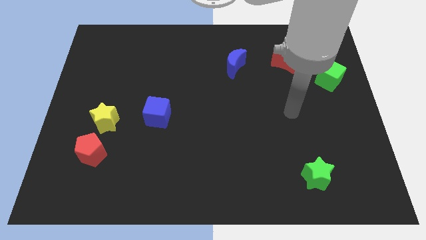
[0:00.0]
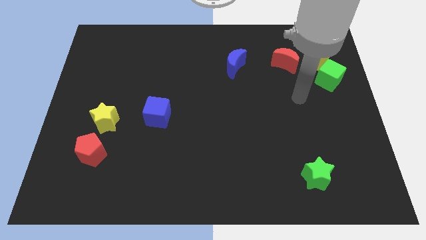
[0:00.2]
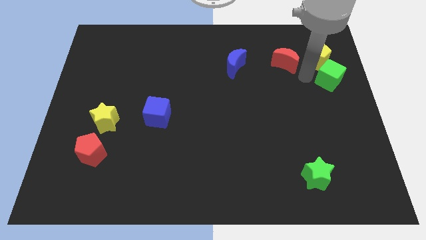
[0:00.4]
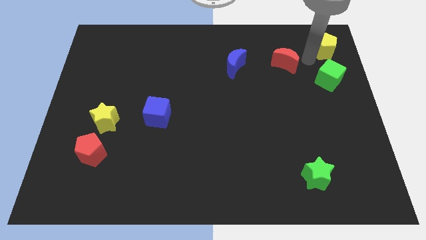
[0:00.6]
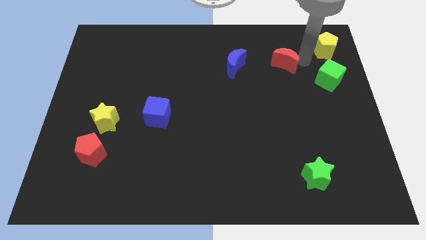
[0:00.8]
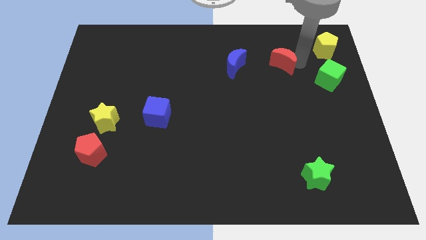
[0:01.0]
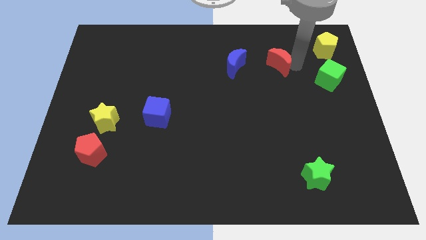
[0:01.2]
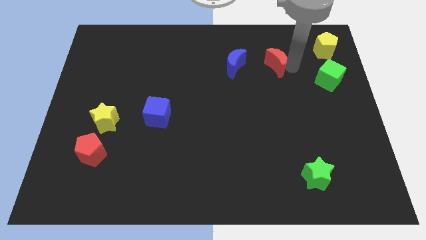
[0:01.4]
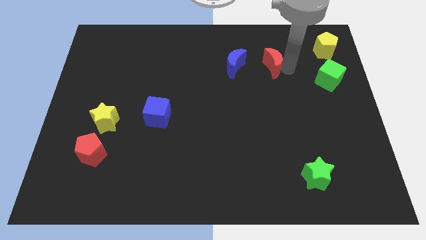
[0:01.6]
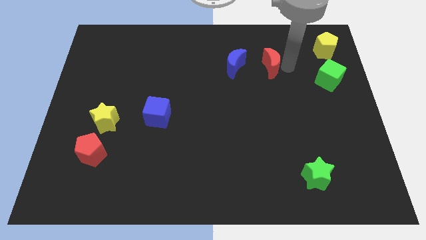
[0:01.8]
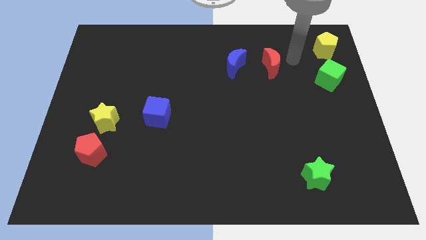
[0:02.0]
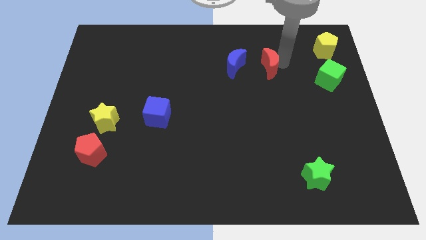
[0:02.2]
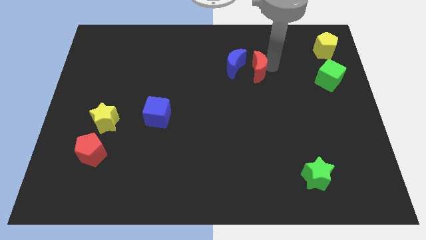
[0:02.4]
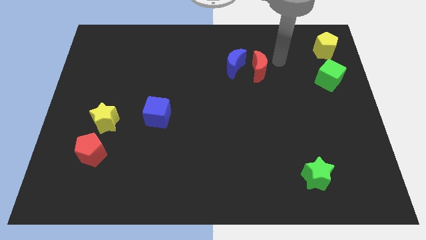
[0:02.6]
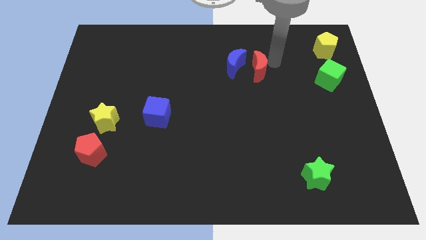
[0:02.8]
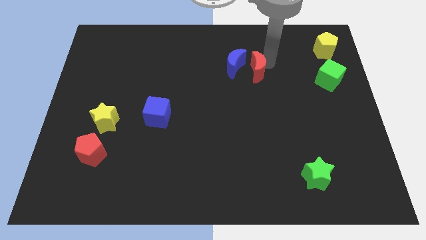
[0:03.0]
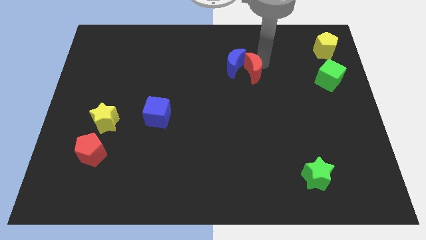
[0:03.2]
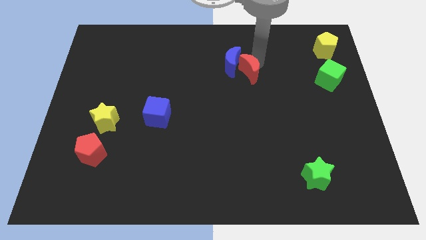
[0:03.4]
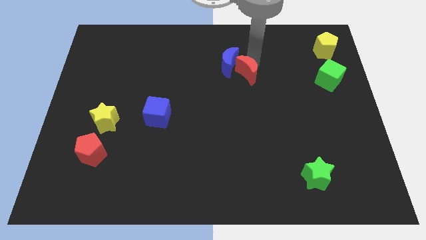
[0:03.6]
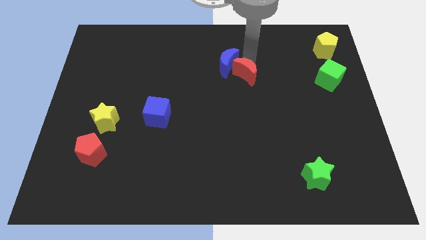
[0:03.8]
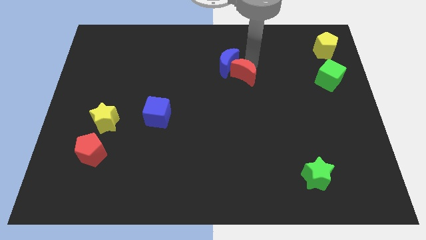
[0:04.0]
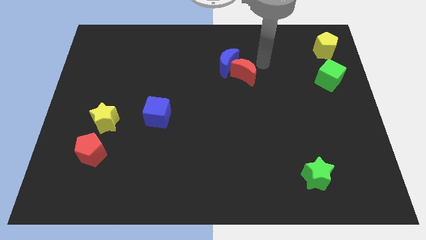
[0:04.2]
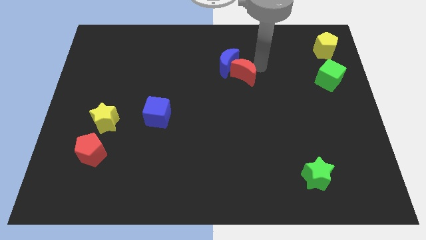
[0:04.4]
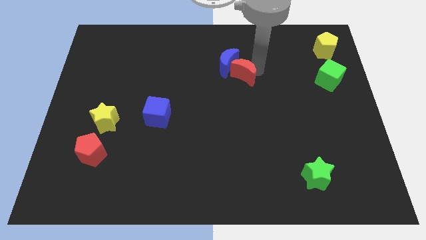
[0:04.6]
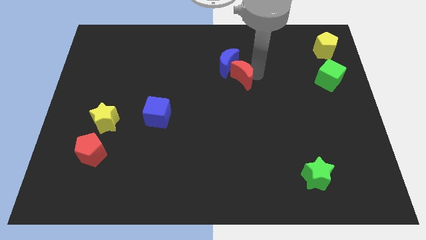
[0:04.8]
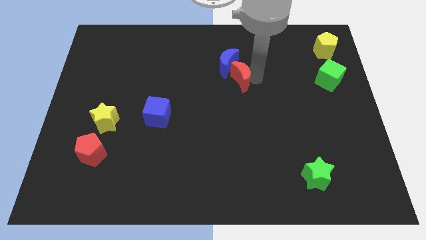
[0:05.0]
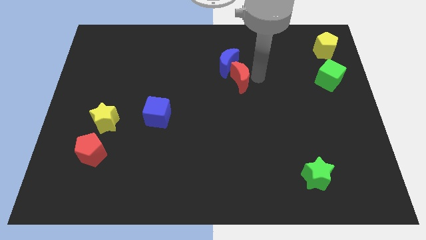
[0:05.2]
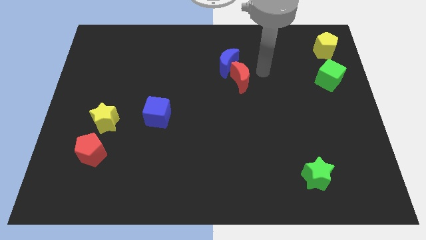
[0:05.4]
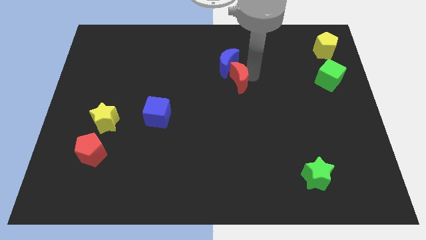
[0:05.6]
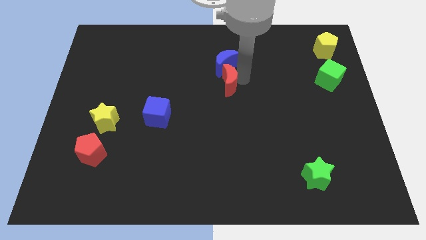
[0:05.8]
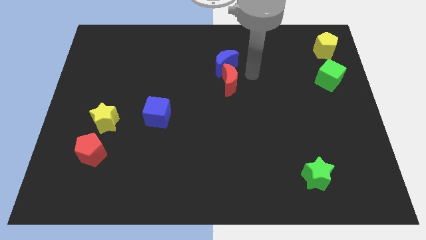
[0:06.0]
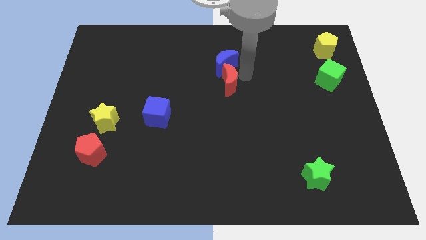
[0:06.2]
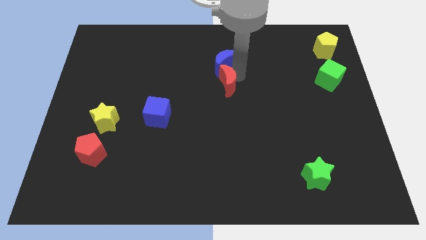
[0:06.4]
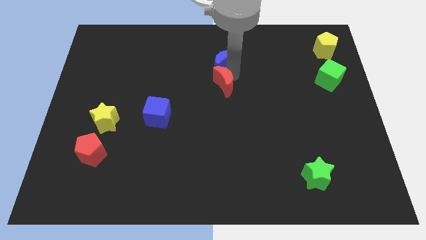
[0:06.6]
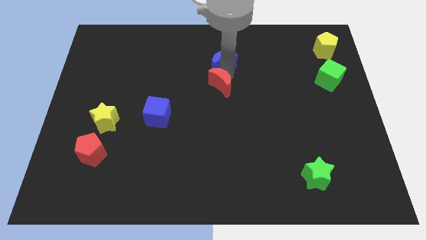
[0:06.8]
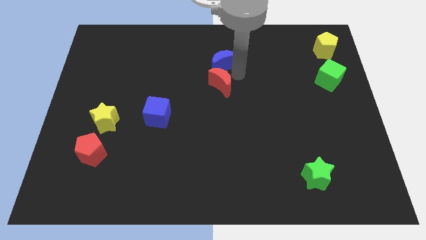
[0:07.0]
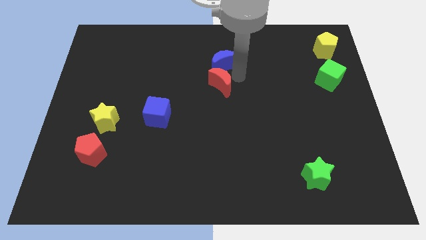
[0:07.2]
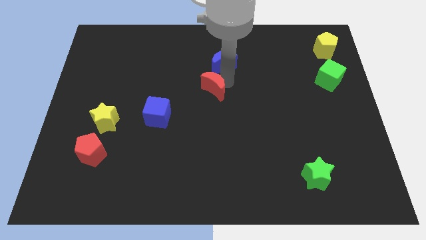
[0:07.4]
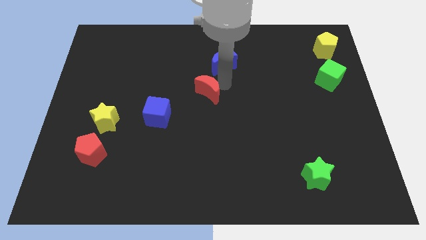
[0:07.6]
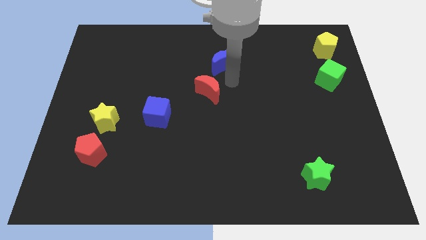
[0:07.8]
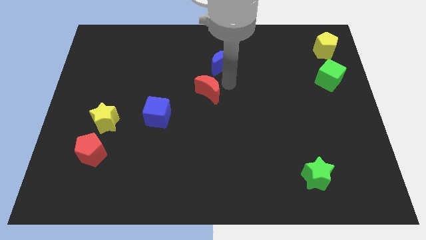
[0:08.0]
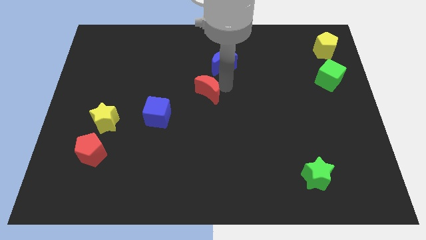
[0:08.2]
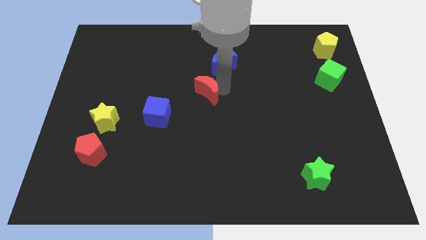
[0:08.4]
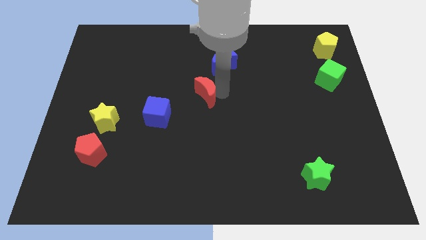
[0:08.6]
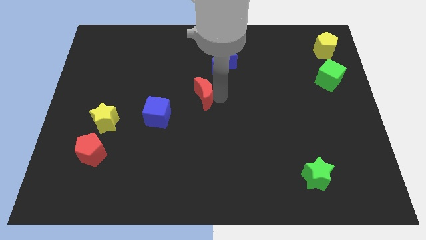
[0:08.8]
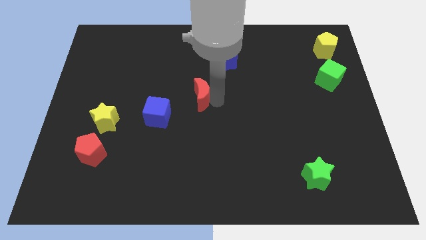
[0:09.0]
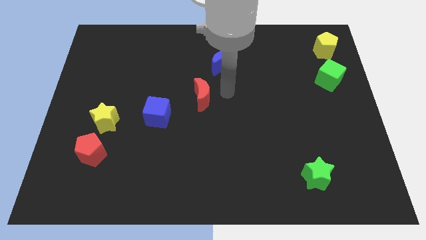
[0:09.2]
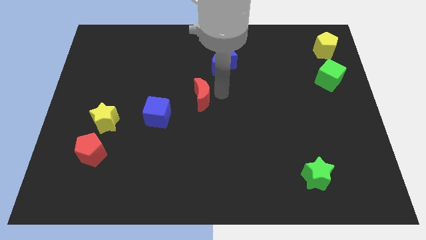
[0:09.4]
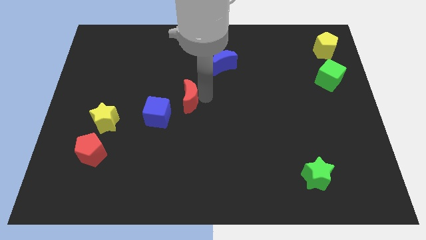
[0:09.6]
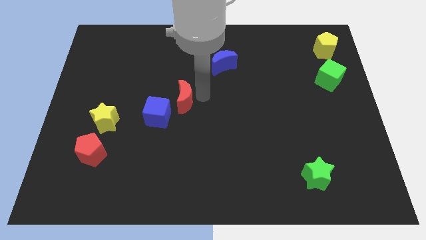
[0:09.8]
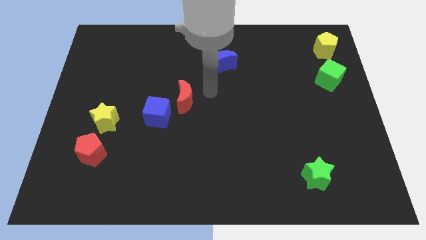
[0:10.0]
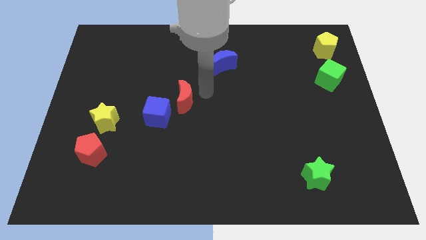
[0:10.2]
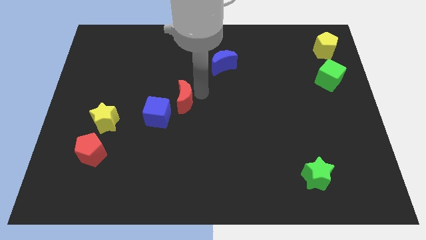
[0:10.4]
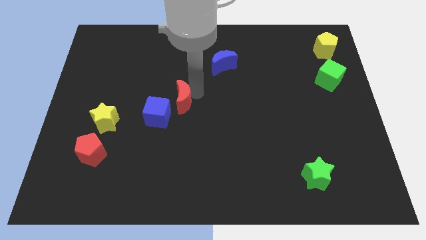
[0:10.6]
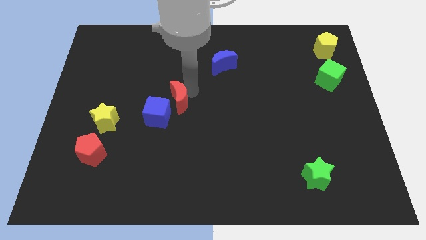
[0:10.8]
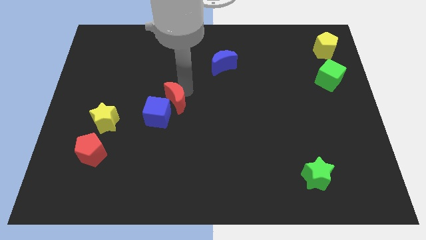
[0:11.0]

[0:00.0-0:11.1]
put the red moon towards the blue cube

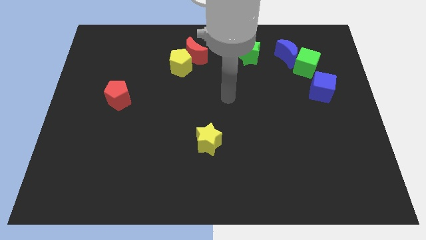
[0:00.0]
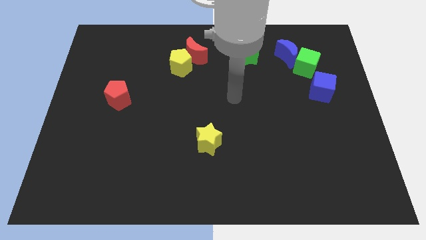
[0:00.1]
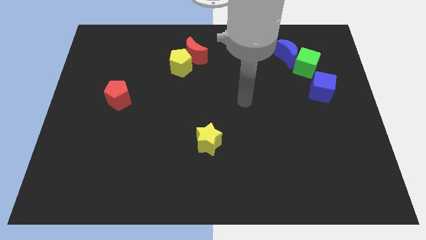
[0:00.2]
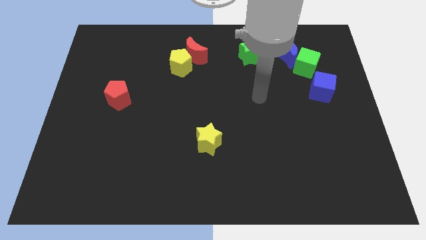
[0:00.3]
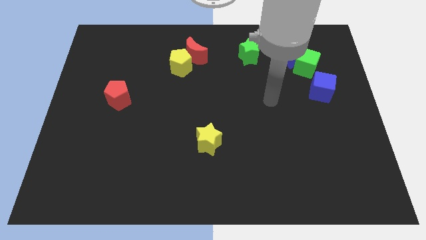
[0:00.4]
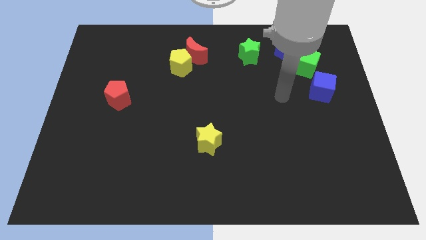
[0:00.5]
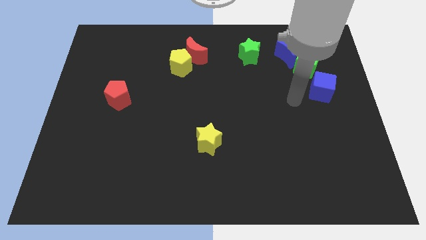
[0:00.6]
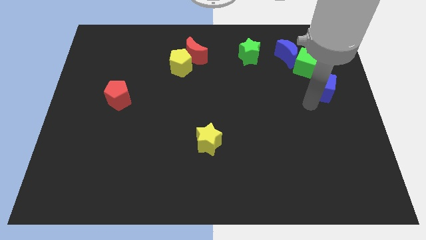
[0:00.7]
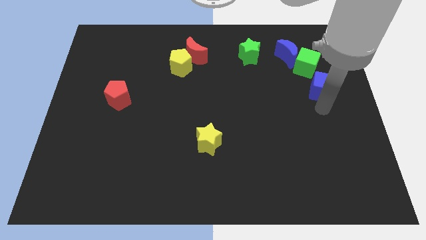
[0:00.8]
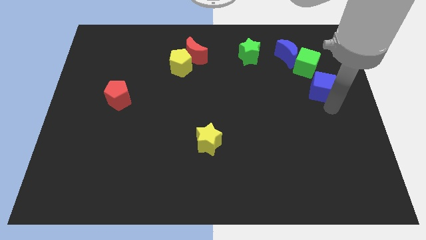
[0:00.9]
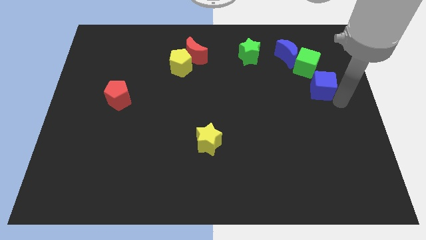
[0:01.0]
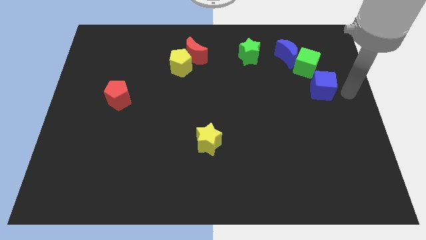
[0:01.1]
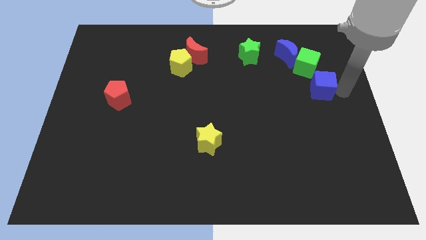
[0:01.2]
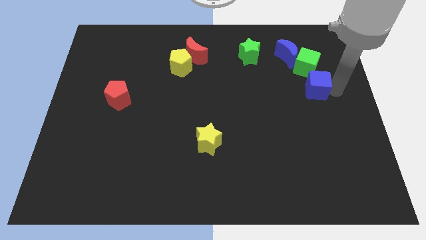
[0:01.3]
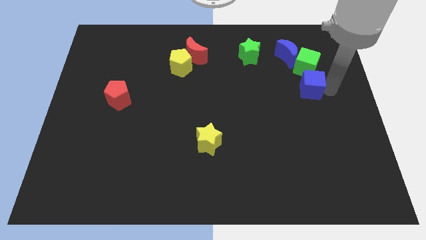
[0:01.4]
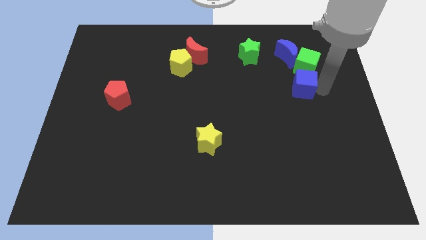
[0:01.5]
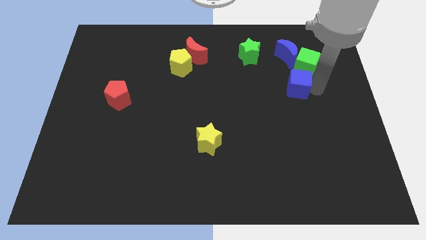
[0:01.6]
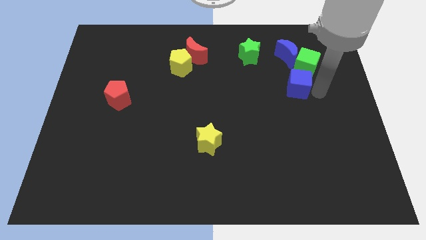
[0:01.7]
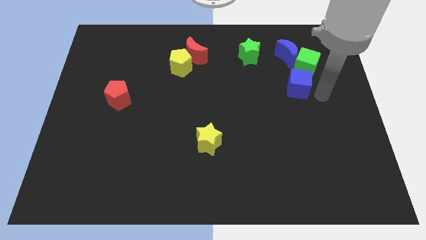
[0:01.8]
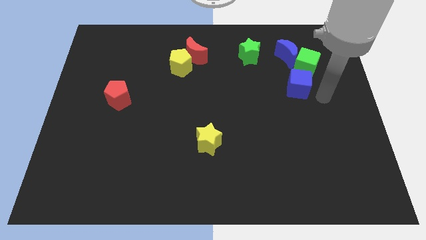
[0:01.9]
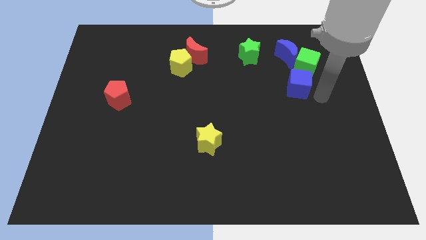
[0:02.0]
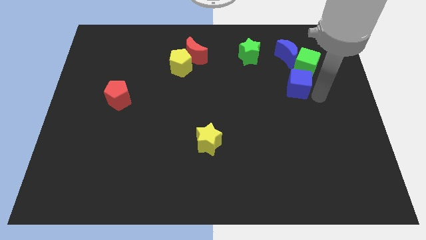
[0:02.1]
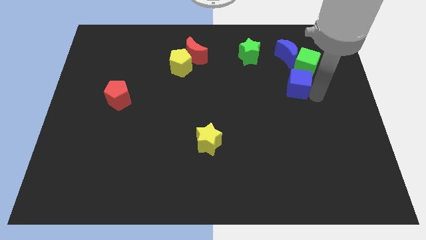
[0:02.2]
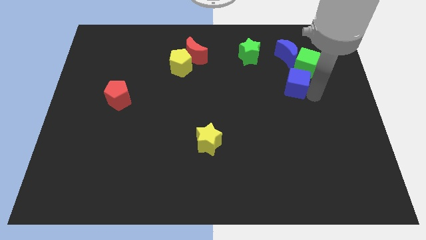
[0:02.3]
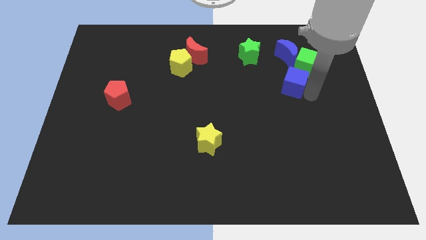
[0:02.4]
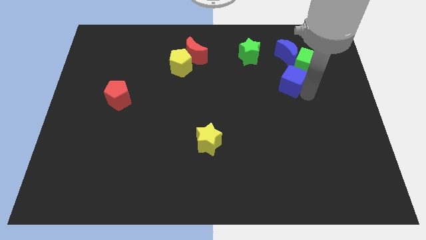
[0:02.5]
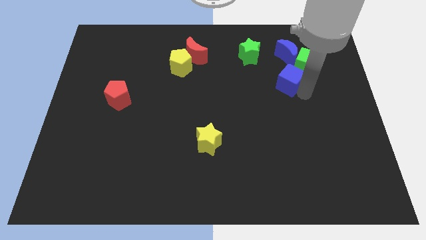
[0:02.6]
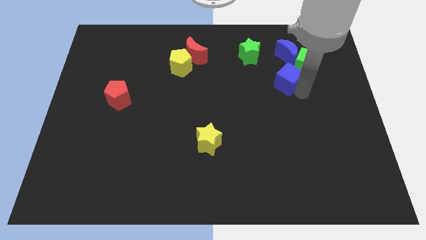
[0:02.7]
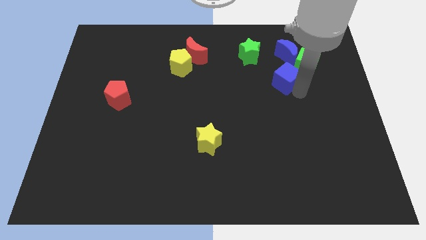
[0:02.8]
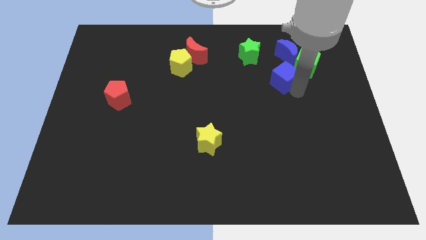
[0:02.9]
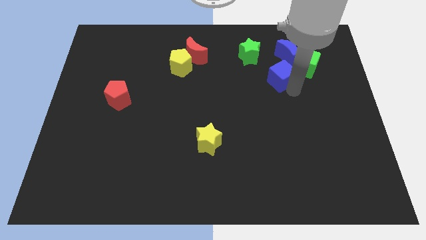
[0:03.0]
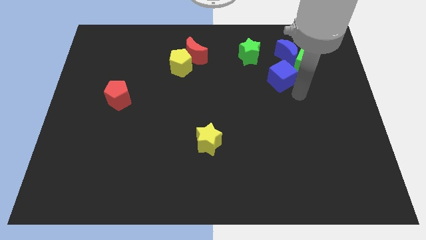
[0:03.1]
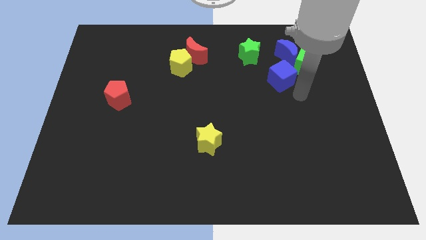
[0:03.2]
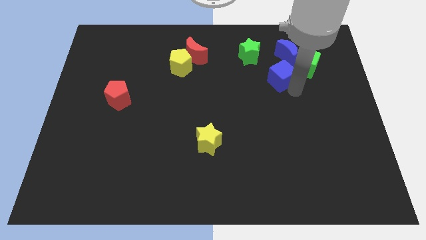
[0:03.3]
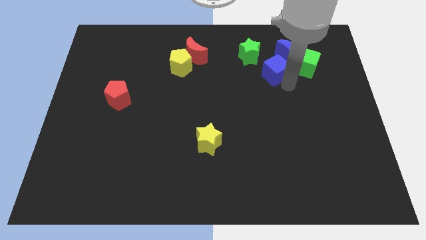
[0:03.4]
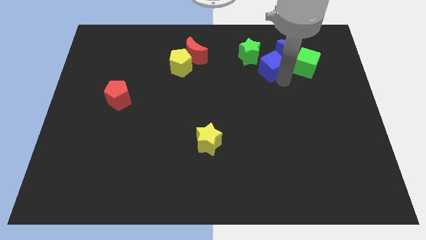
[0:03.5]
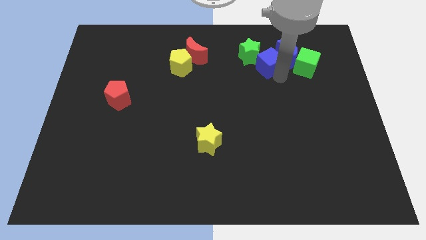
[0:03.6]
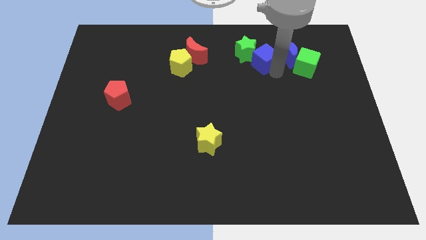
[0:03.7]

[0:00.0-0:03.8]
put the blue cube close to the green star
